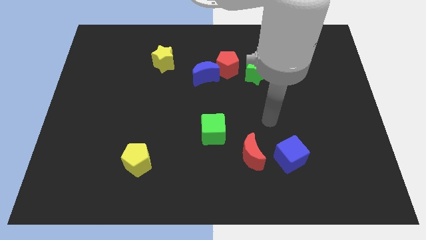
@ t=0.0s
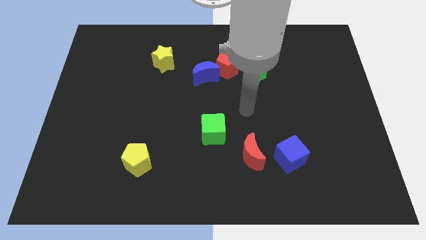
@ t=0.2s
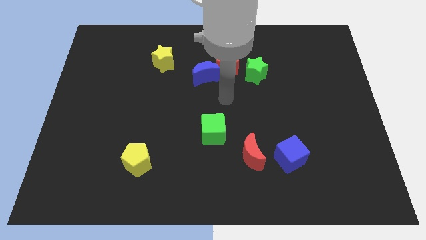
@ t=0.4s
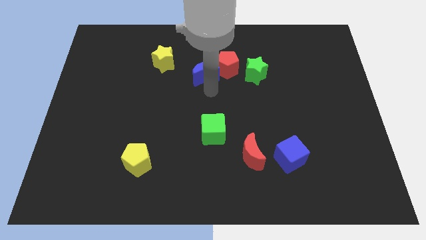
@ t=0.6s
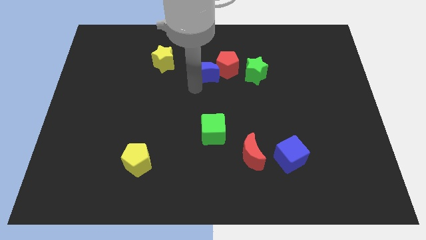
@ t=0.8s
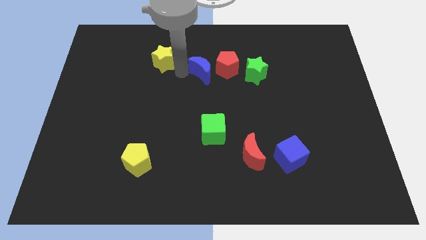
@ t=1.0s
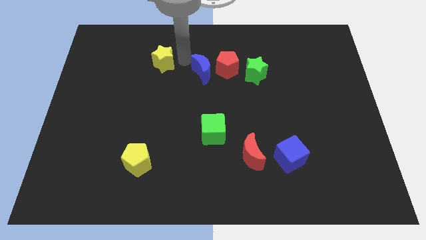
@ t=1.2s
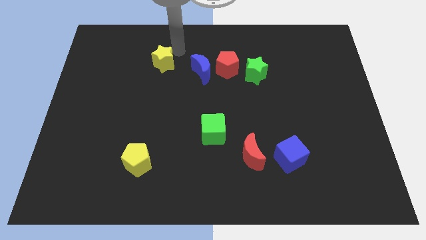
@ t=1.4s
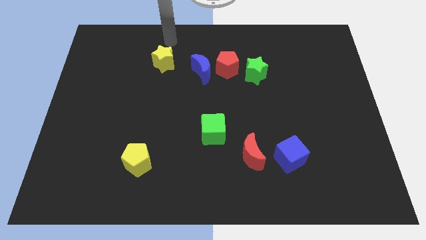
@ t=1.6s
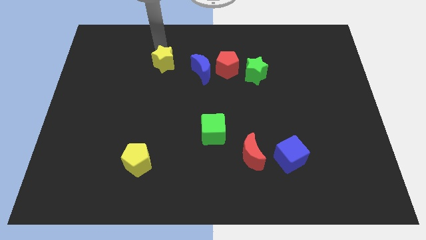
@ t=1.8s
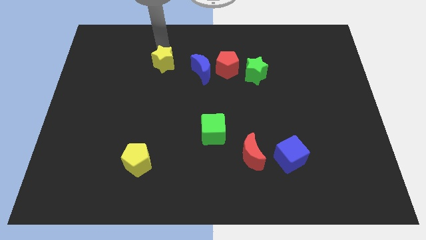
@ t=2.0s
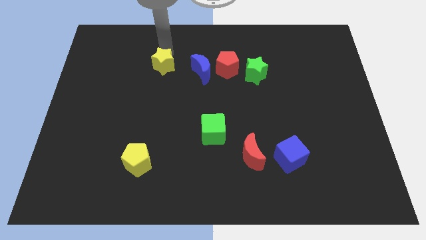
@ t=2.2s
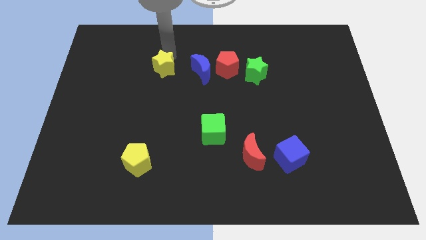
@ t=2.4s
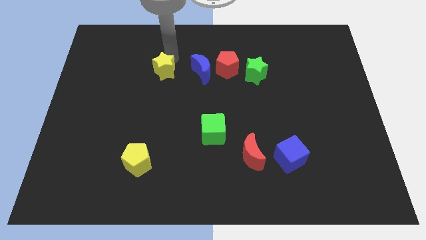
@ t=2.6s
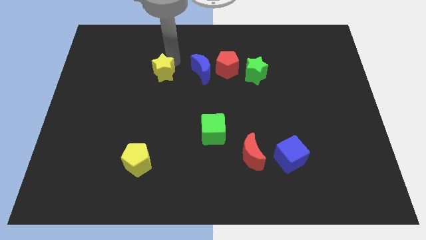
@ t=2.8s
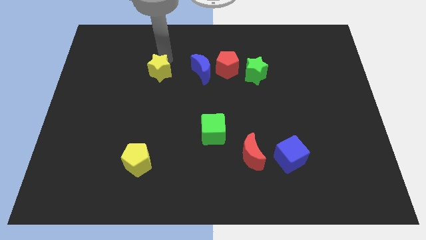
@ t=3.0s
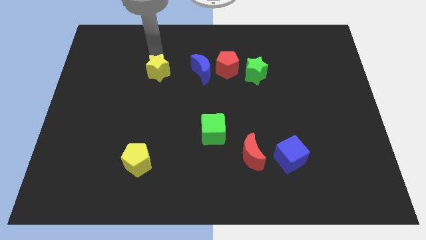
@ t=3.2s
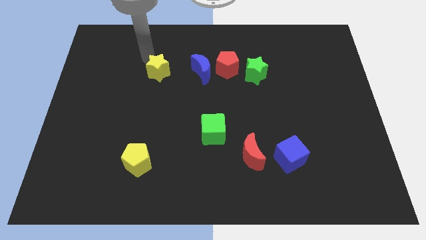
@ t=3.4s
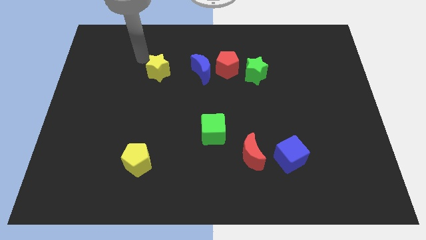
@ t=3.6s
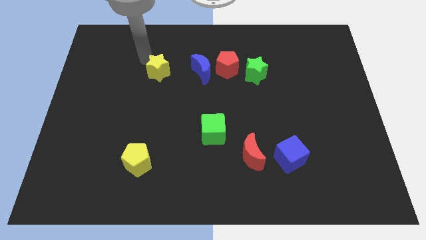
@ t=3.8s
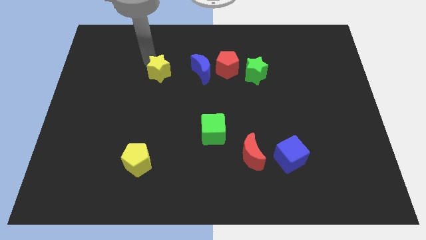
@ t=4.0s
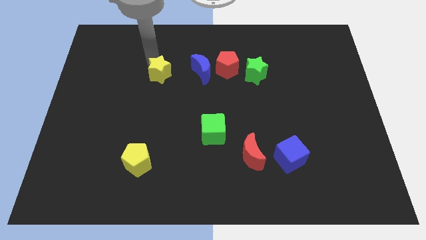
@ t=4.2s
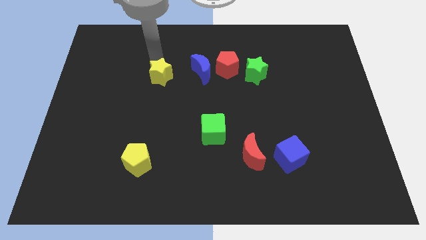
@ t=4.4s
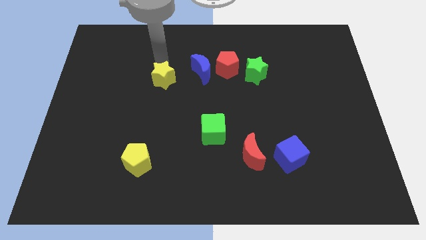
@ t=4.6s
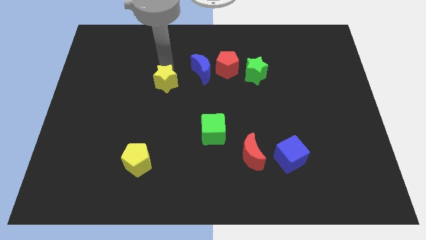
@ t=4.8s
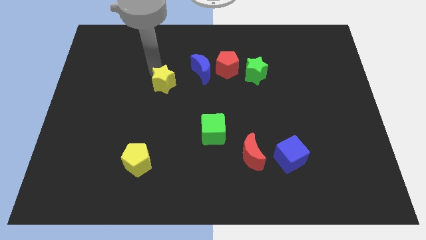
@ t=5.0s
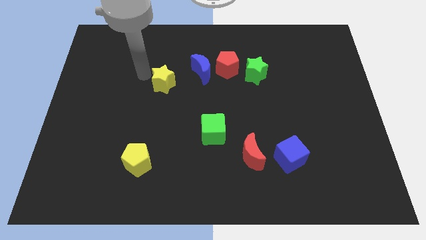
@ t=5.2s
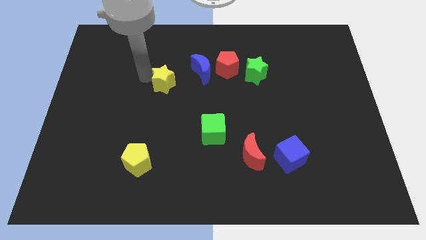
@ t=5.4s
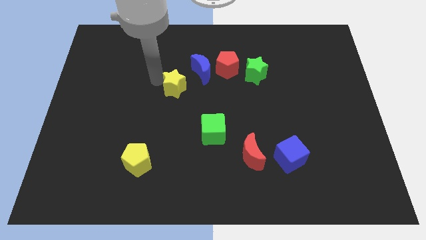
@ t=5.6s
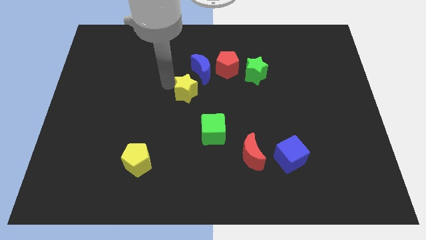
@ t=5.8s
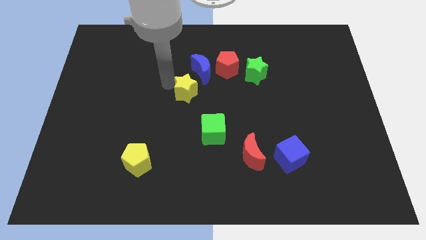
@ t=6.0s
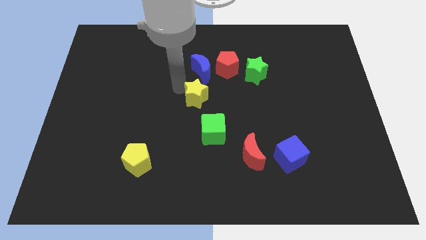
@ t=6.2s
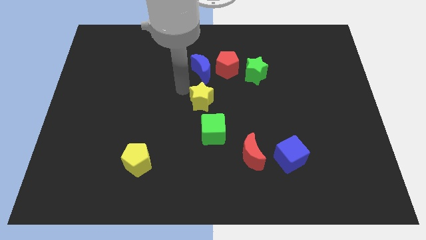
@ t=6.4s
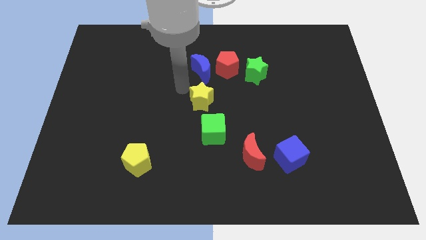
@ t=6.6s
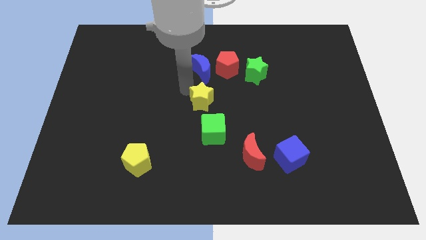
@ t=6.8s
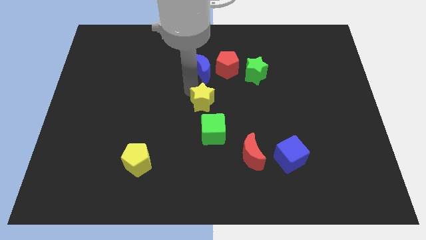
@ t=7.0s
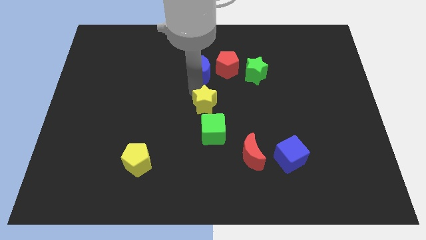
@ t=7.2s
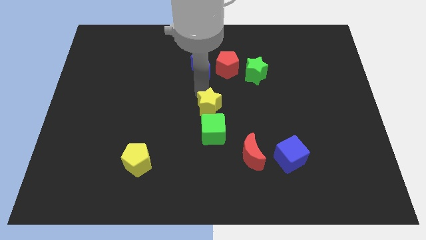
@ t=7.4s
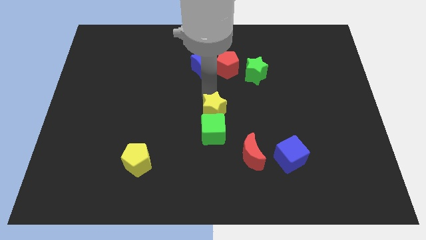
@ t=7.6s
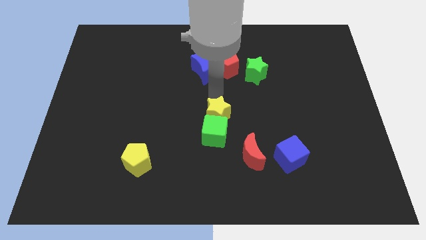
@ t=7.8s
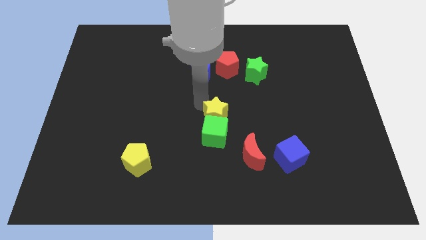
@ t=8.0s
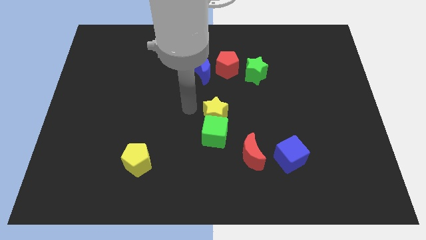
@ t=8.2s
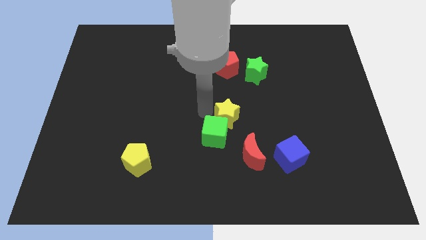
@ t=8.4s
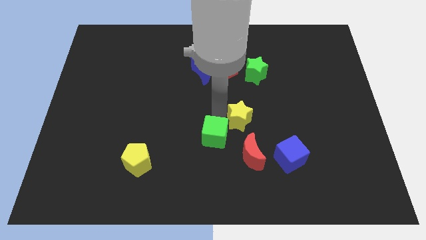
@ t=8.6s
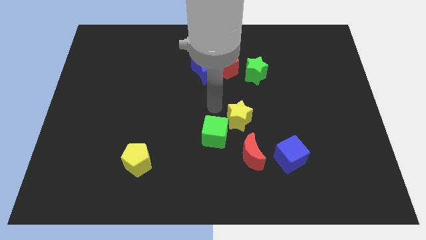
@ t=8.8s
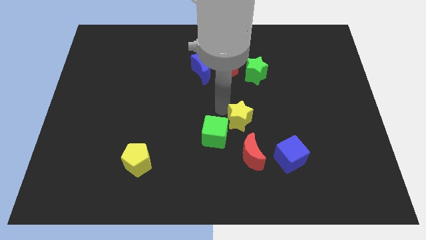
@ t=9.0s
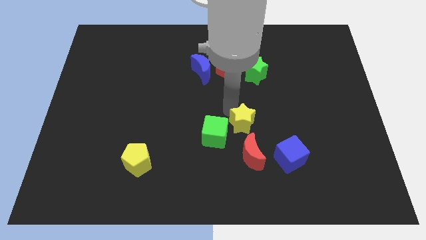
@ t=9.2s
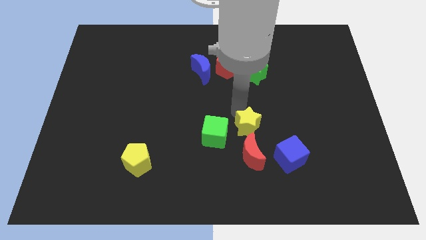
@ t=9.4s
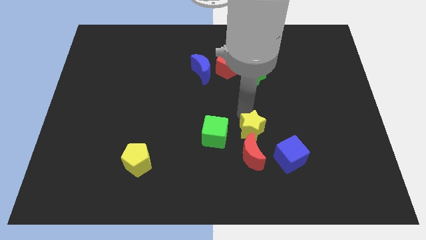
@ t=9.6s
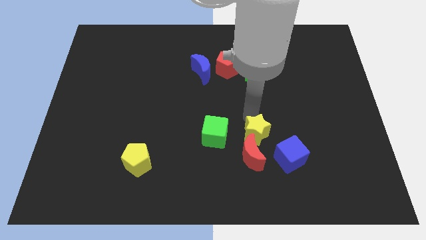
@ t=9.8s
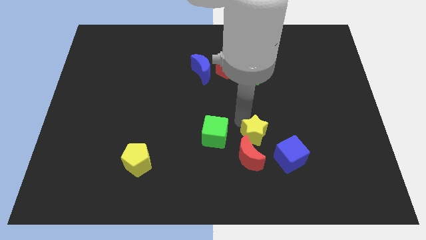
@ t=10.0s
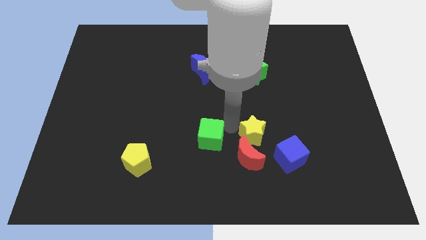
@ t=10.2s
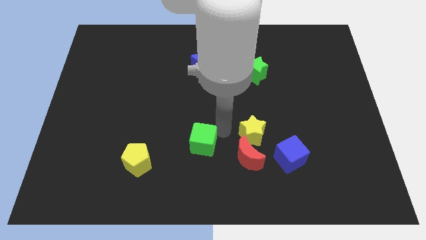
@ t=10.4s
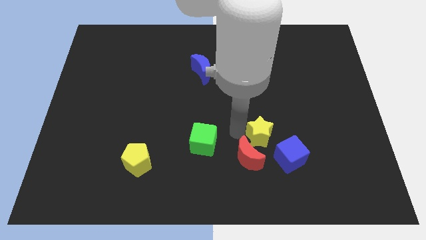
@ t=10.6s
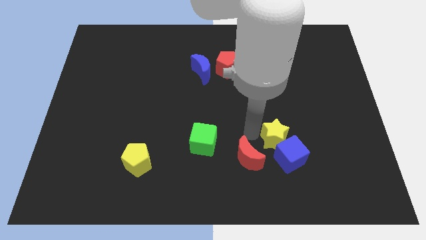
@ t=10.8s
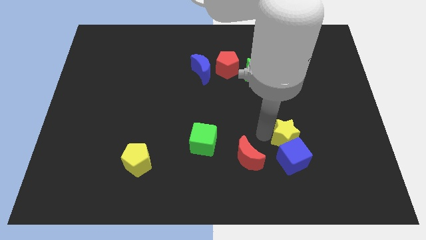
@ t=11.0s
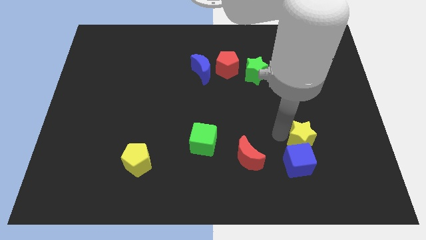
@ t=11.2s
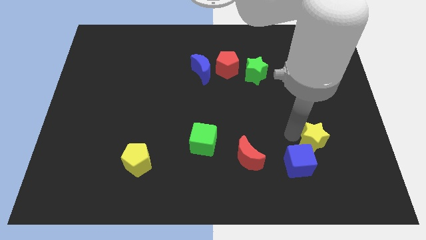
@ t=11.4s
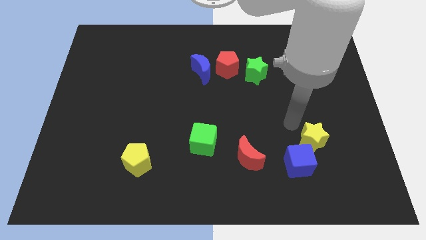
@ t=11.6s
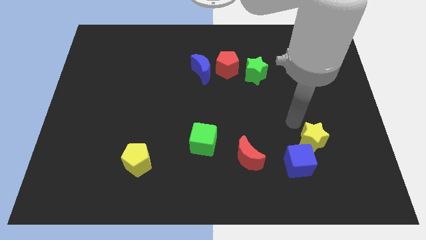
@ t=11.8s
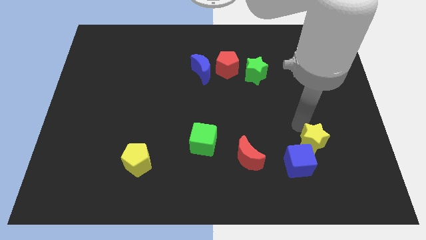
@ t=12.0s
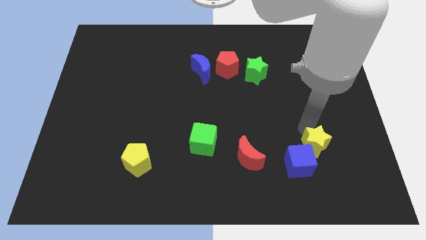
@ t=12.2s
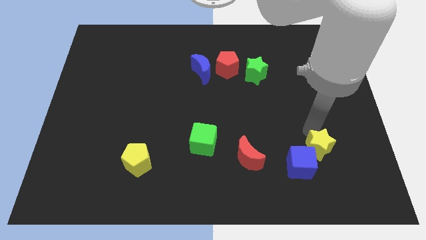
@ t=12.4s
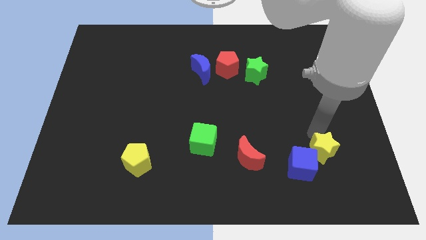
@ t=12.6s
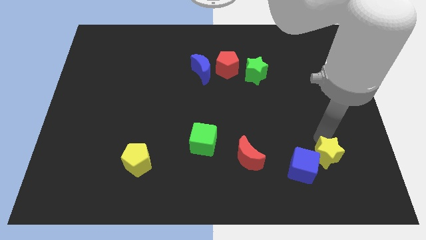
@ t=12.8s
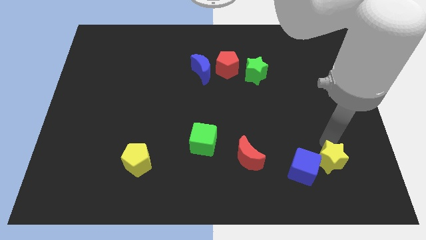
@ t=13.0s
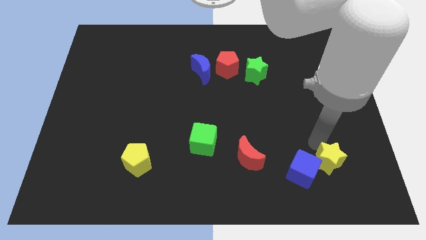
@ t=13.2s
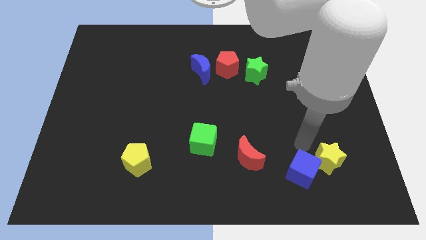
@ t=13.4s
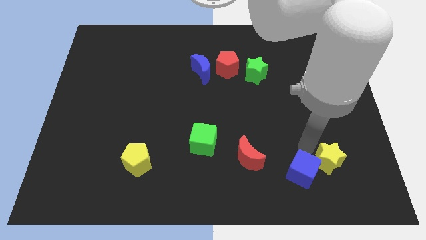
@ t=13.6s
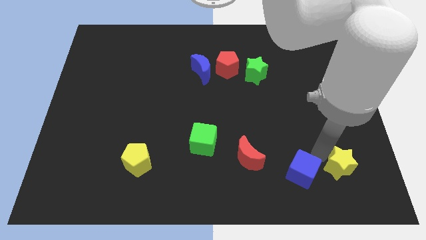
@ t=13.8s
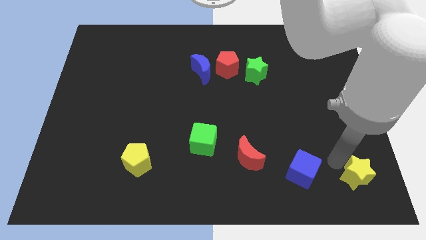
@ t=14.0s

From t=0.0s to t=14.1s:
push the yellow star to the bottom right
